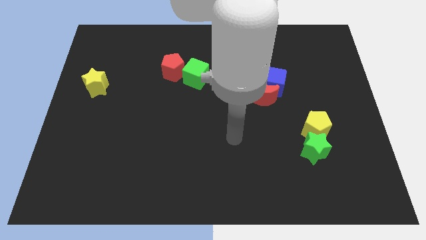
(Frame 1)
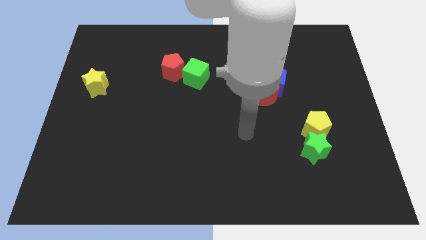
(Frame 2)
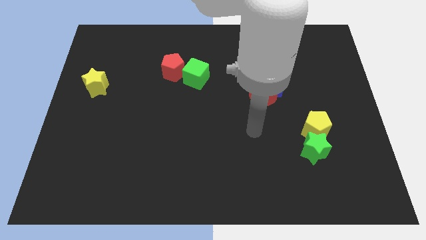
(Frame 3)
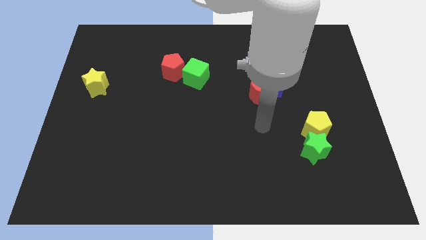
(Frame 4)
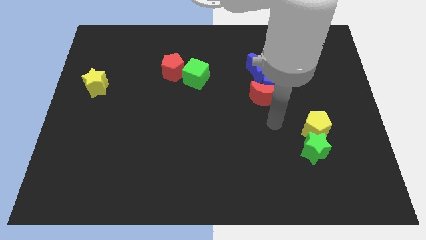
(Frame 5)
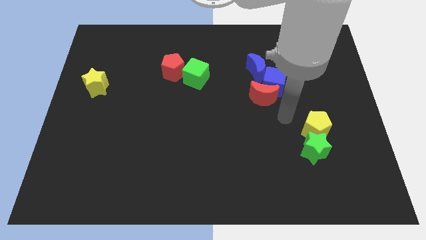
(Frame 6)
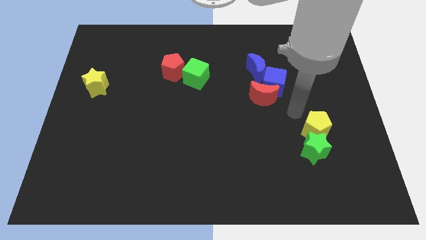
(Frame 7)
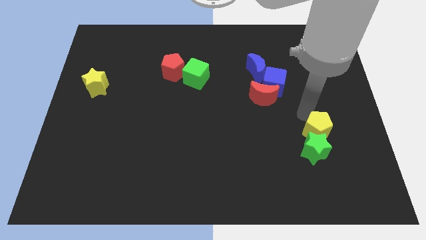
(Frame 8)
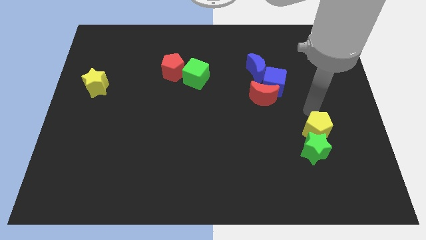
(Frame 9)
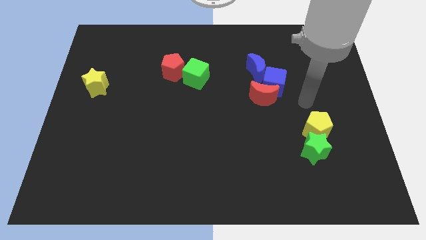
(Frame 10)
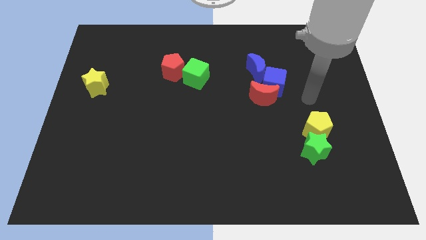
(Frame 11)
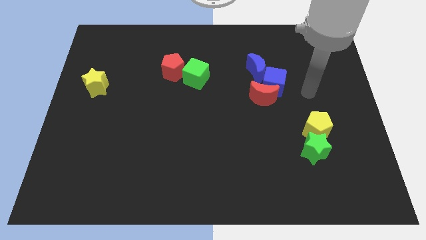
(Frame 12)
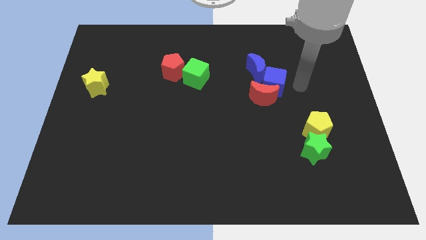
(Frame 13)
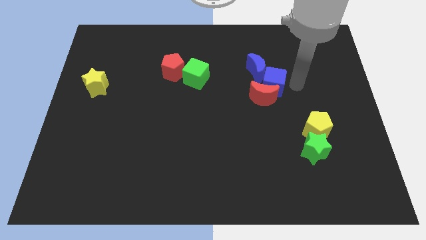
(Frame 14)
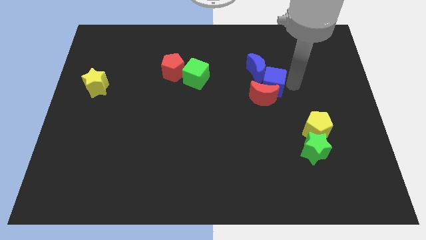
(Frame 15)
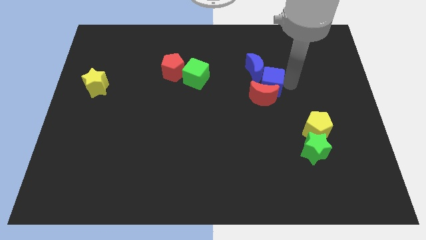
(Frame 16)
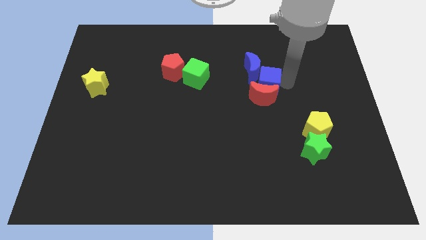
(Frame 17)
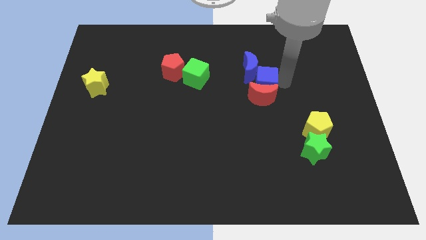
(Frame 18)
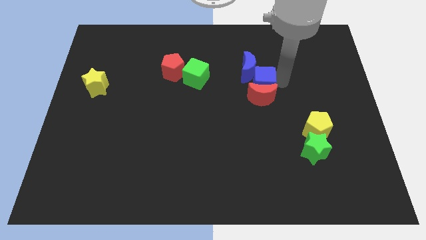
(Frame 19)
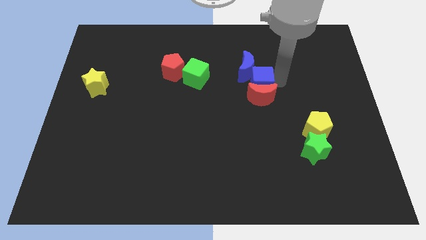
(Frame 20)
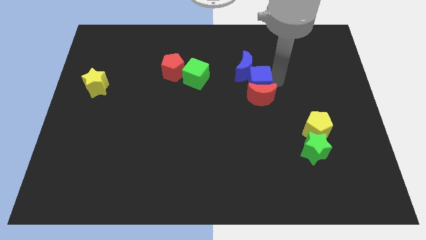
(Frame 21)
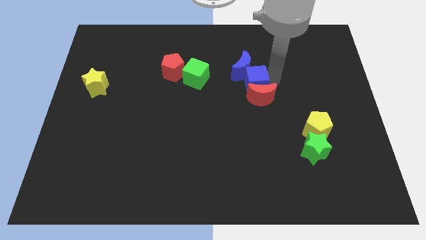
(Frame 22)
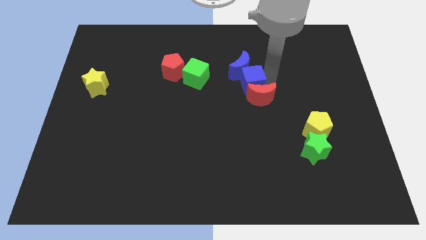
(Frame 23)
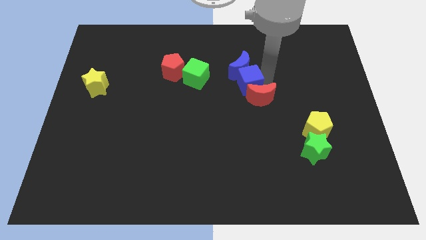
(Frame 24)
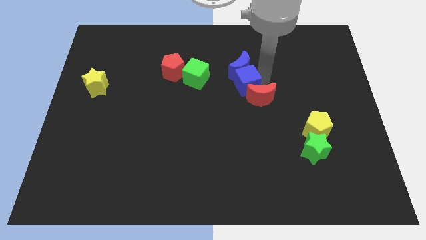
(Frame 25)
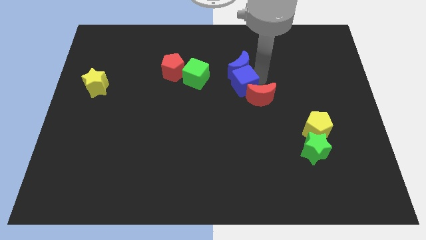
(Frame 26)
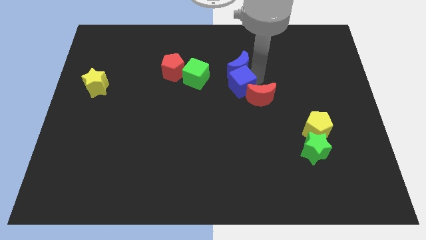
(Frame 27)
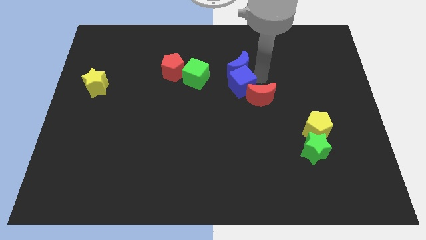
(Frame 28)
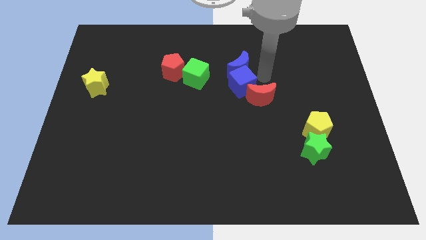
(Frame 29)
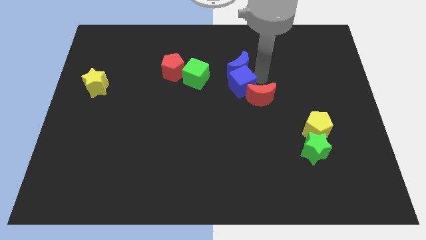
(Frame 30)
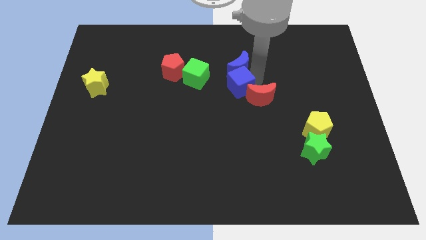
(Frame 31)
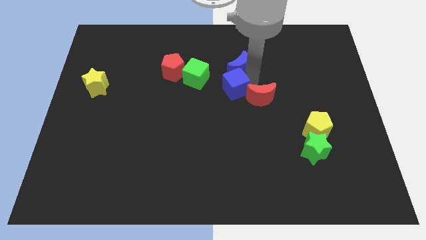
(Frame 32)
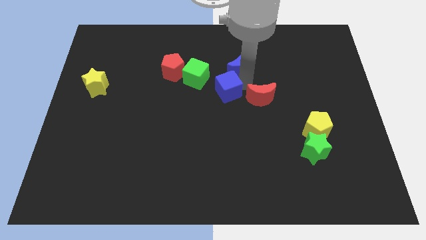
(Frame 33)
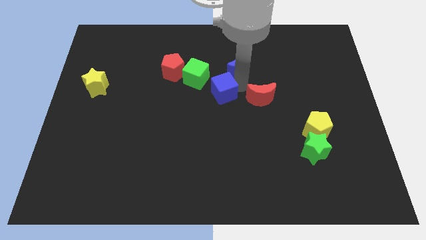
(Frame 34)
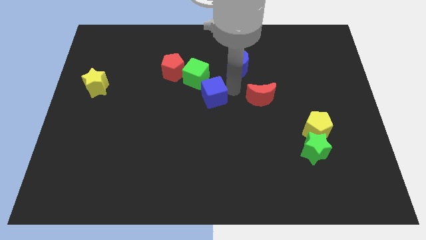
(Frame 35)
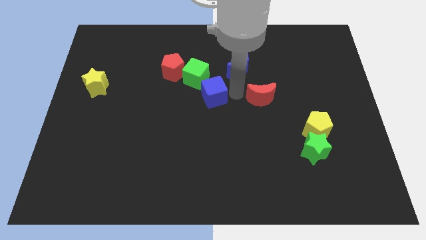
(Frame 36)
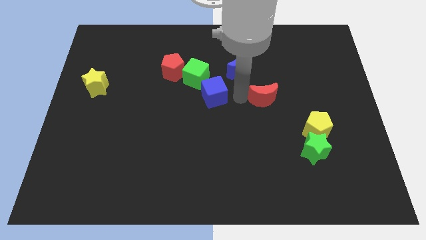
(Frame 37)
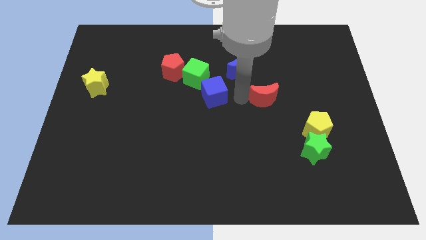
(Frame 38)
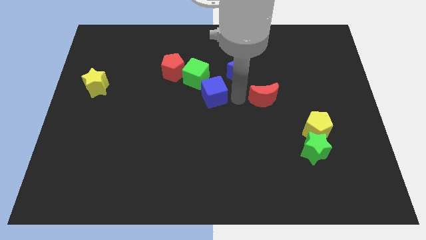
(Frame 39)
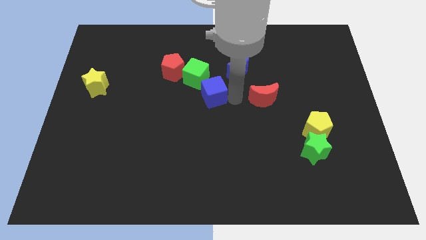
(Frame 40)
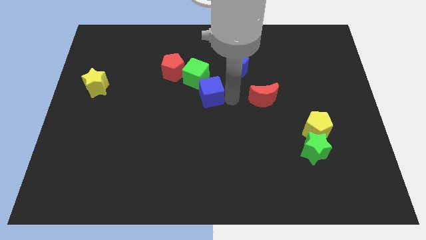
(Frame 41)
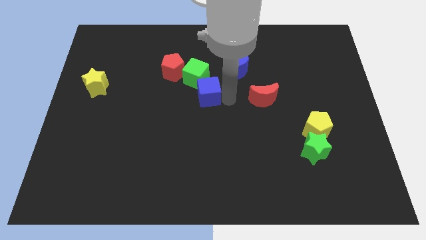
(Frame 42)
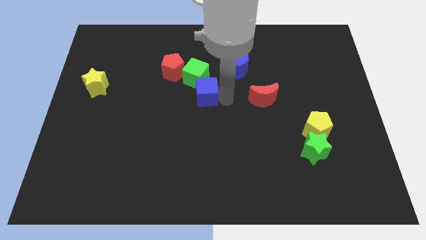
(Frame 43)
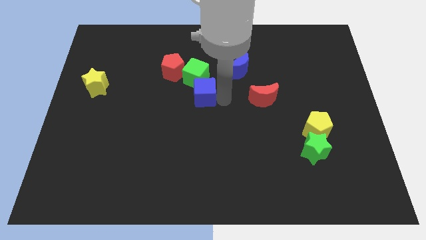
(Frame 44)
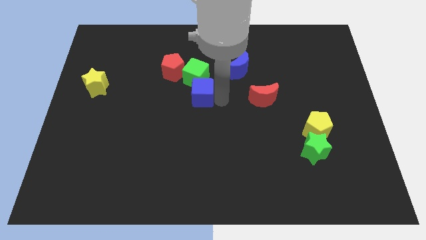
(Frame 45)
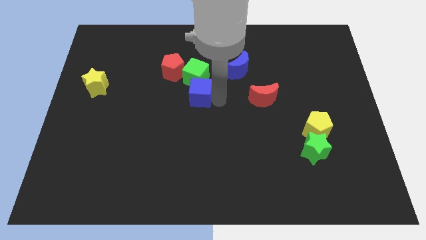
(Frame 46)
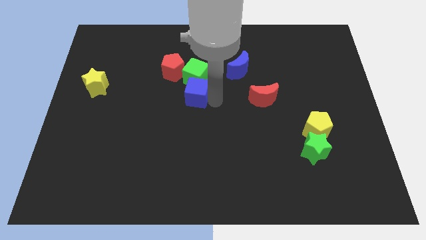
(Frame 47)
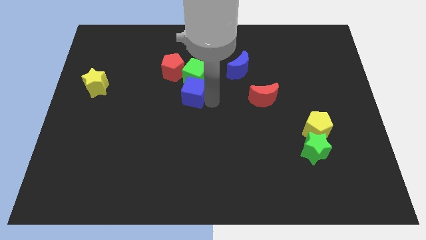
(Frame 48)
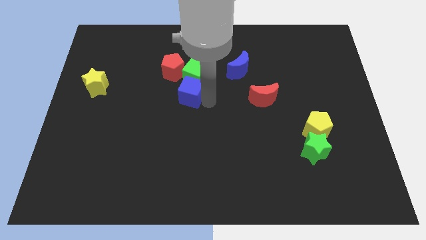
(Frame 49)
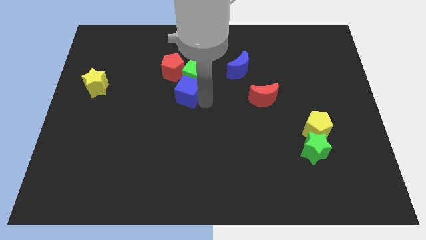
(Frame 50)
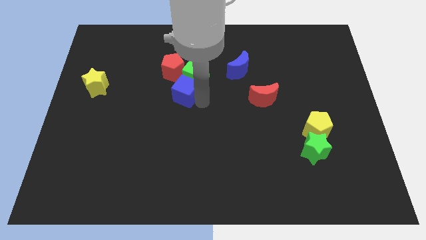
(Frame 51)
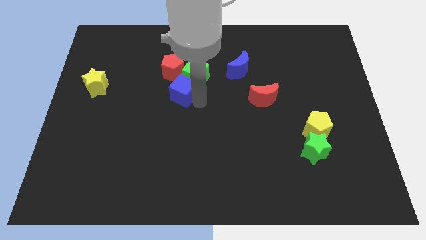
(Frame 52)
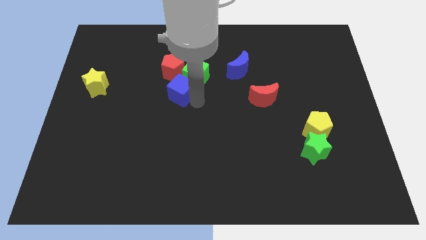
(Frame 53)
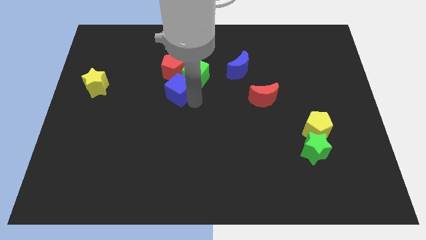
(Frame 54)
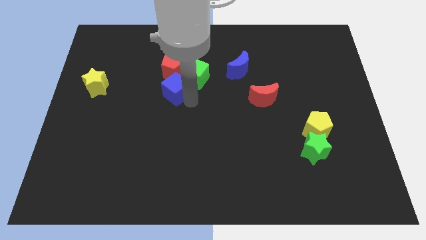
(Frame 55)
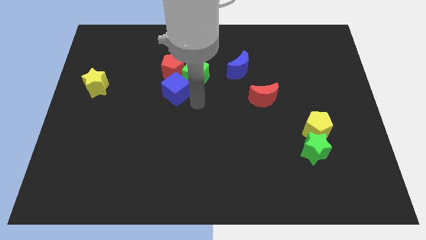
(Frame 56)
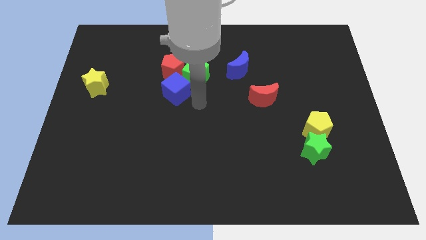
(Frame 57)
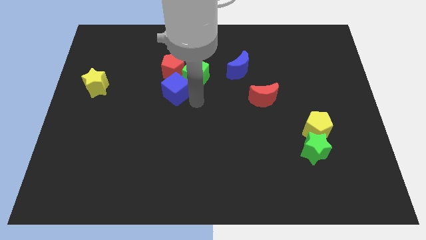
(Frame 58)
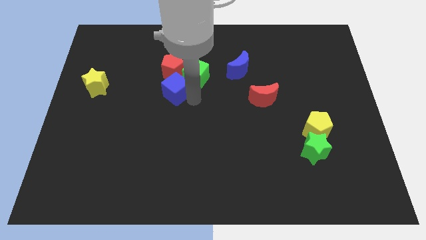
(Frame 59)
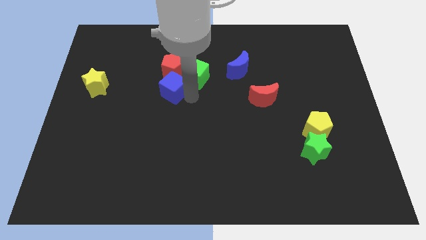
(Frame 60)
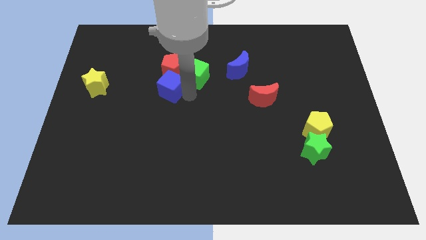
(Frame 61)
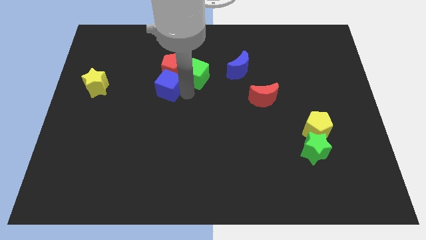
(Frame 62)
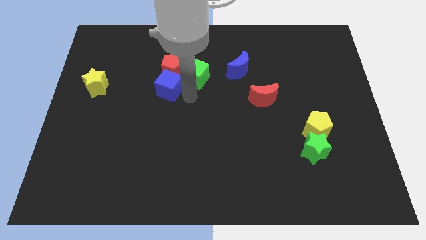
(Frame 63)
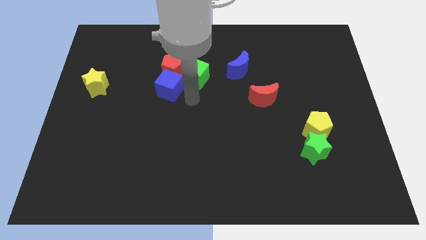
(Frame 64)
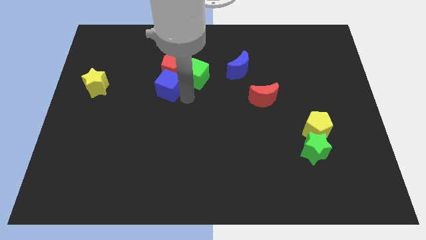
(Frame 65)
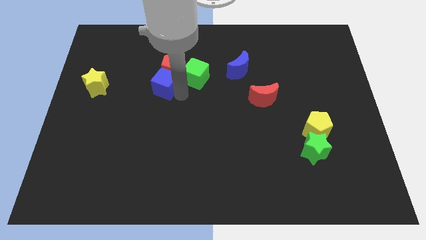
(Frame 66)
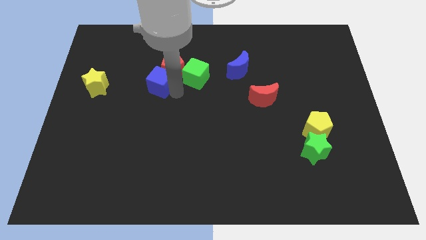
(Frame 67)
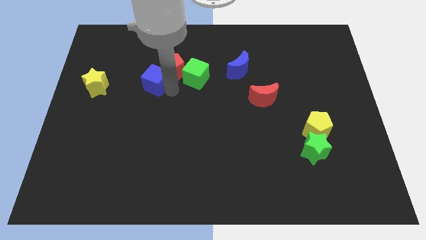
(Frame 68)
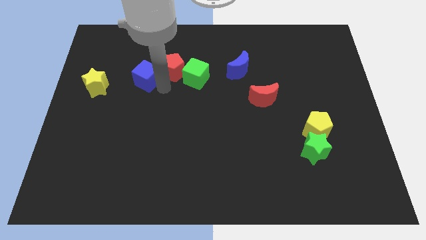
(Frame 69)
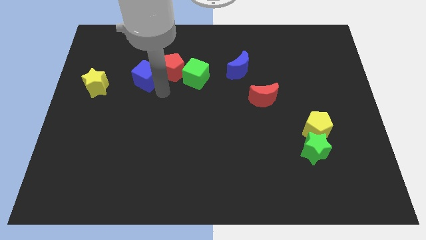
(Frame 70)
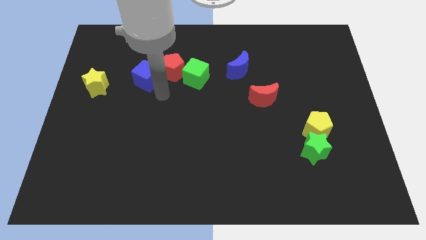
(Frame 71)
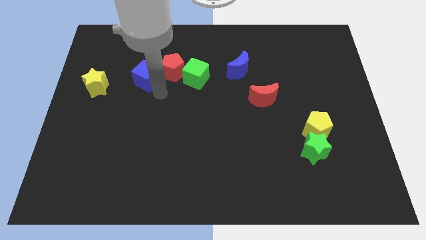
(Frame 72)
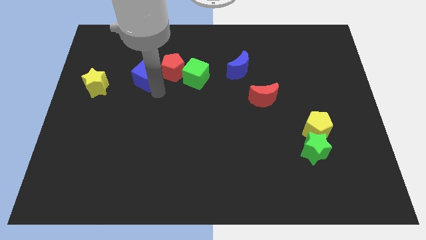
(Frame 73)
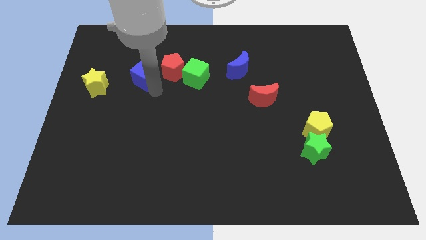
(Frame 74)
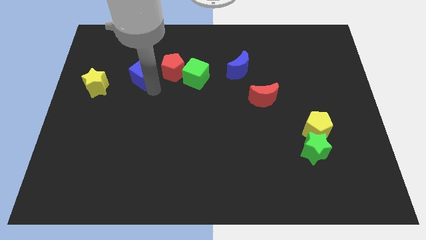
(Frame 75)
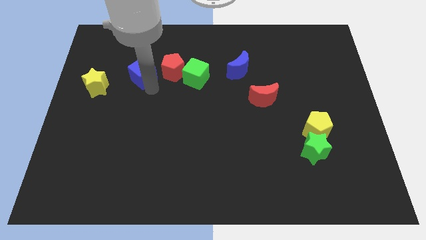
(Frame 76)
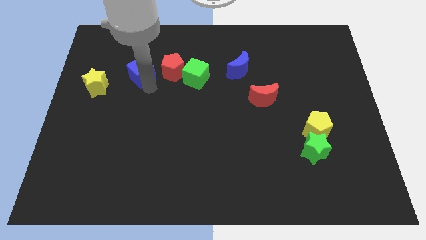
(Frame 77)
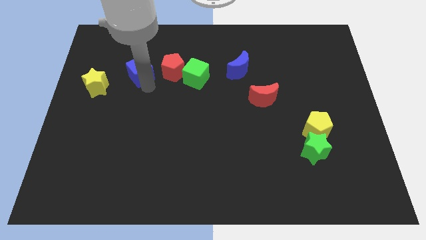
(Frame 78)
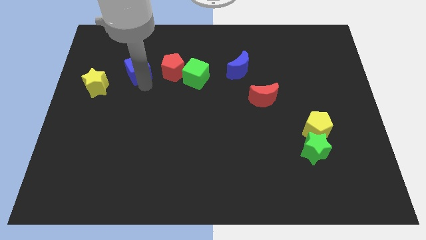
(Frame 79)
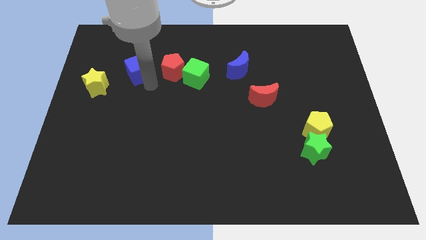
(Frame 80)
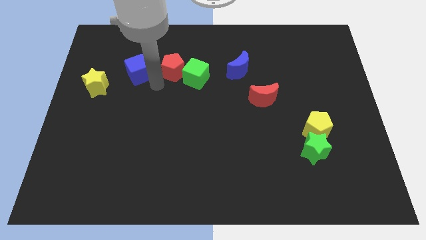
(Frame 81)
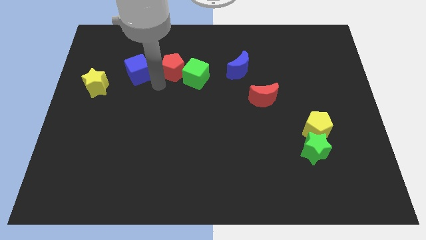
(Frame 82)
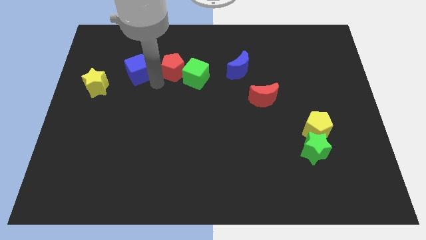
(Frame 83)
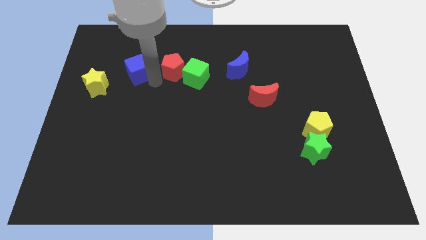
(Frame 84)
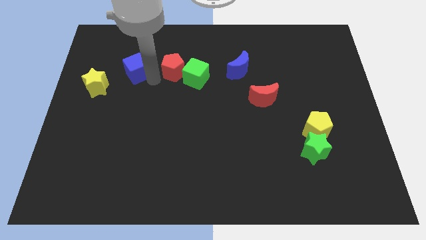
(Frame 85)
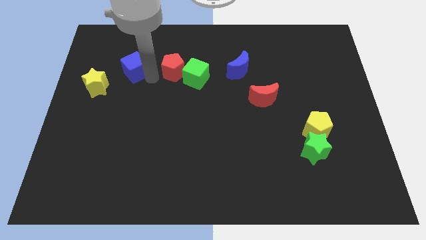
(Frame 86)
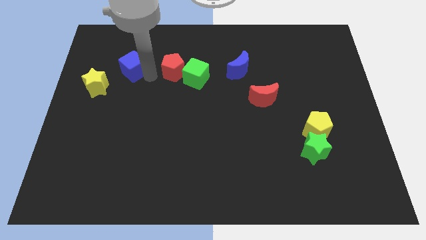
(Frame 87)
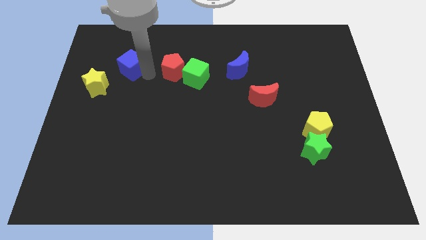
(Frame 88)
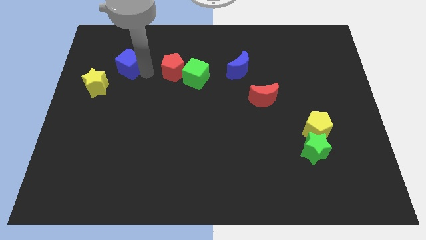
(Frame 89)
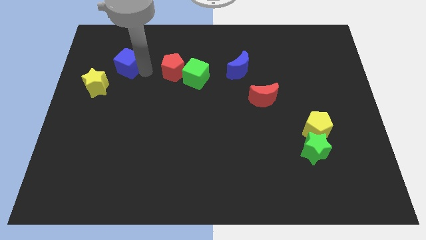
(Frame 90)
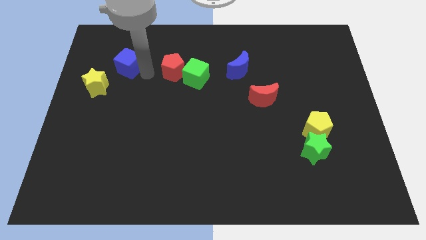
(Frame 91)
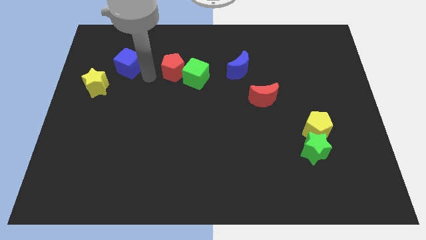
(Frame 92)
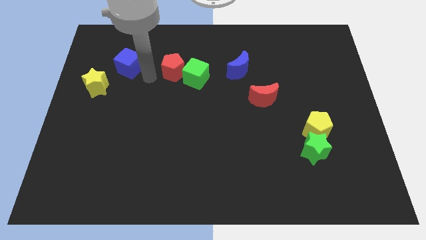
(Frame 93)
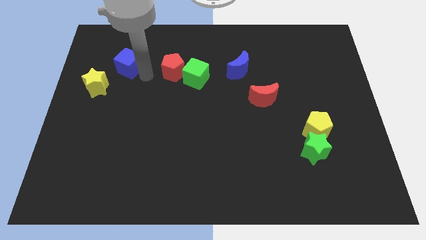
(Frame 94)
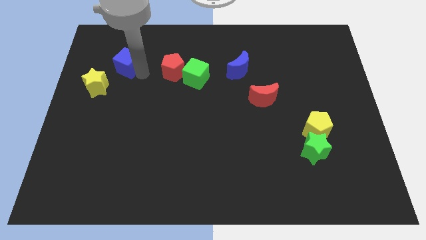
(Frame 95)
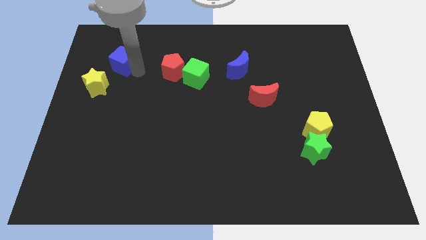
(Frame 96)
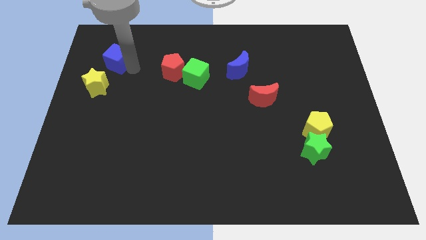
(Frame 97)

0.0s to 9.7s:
put the blue cube to the top side of the yellow star
